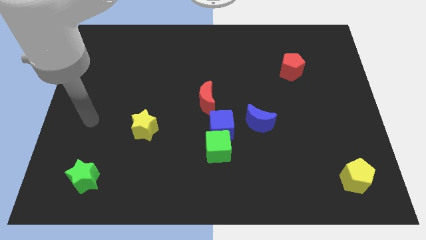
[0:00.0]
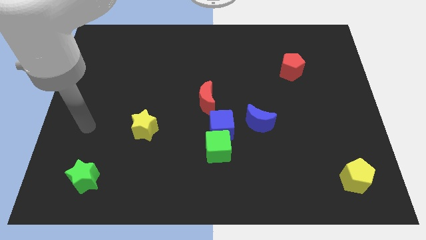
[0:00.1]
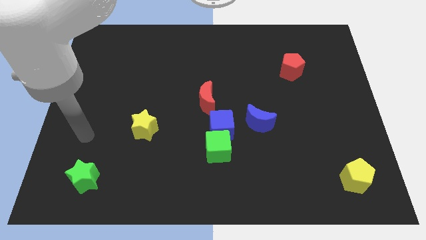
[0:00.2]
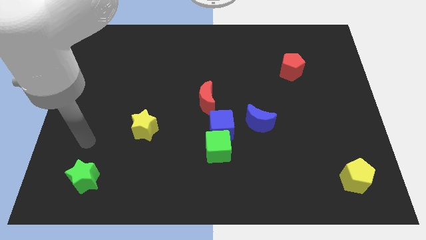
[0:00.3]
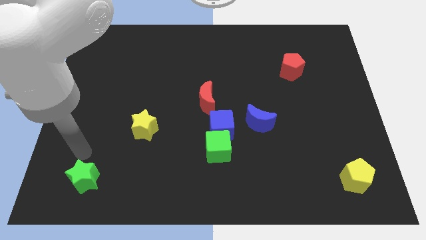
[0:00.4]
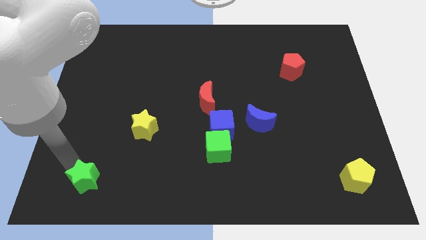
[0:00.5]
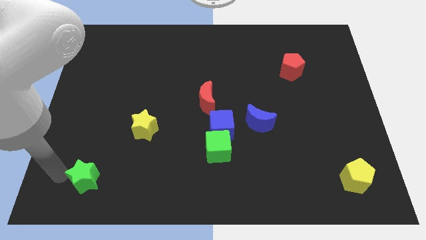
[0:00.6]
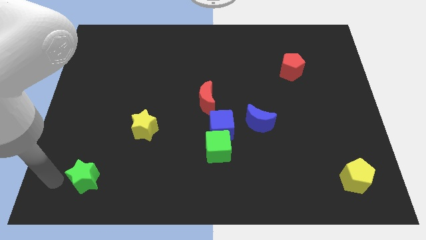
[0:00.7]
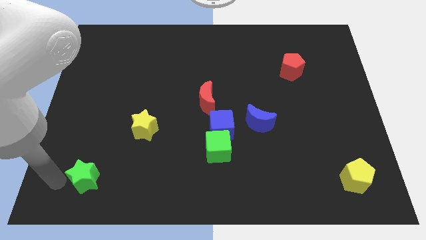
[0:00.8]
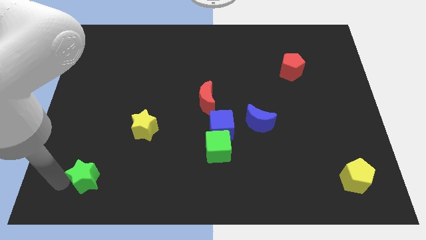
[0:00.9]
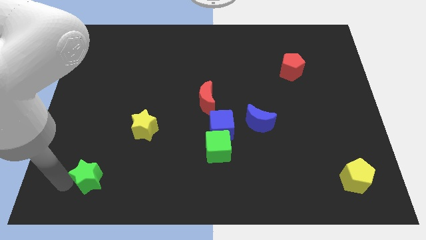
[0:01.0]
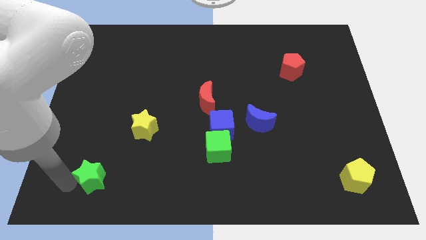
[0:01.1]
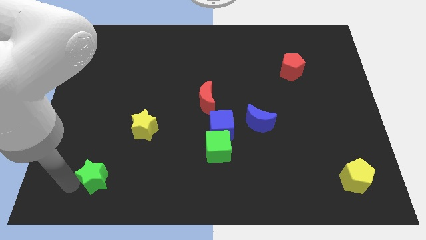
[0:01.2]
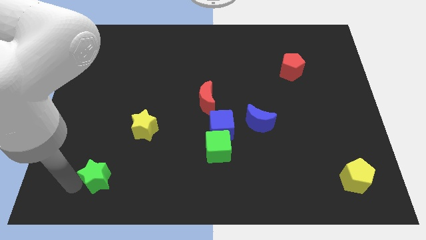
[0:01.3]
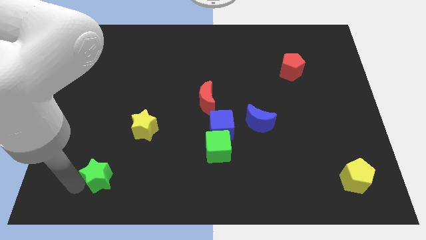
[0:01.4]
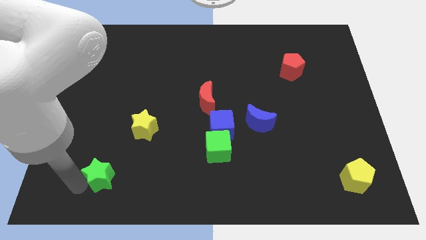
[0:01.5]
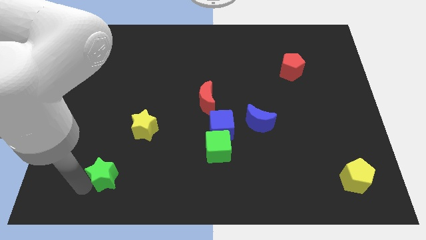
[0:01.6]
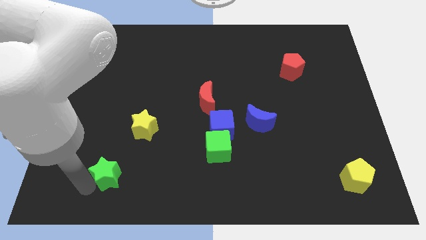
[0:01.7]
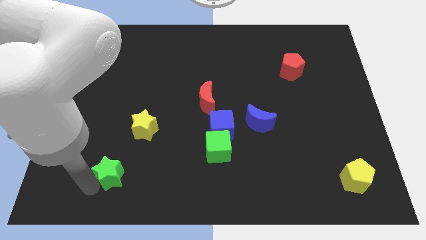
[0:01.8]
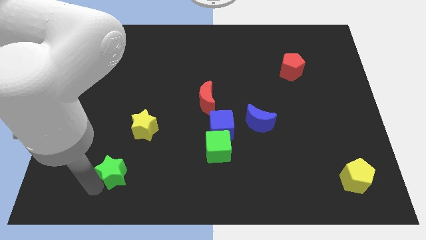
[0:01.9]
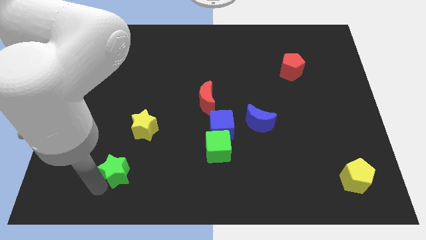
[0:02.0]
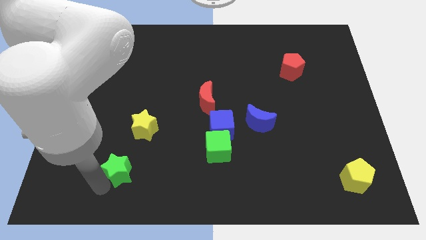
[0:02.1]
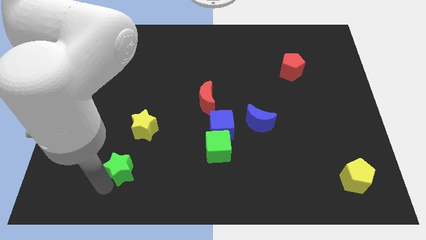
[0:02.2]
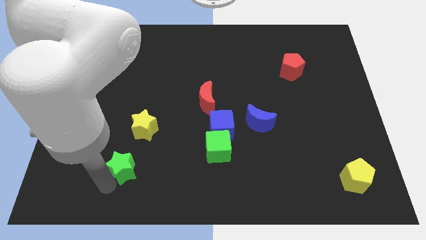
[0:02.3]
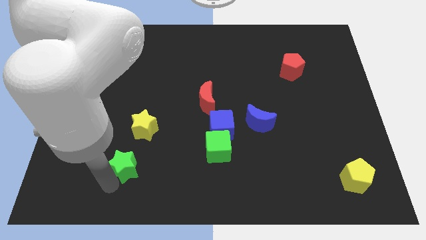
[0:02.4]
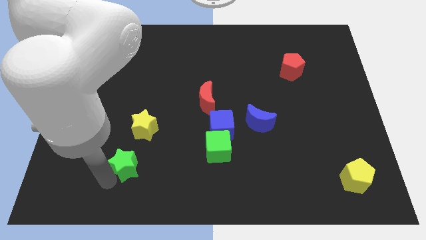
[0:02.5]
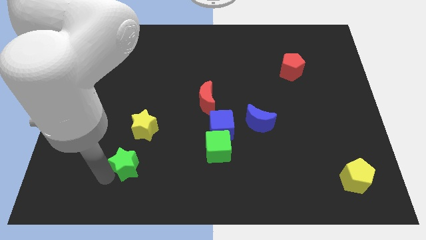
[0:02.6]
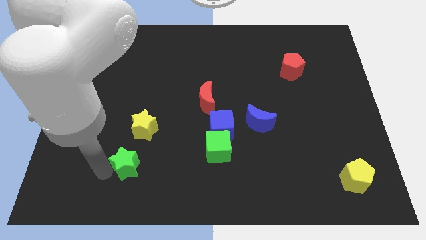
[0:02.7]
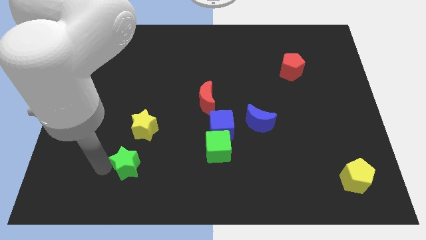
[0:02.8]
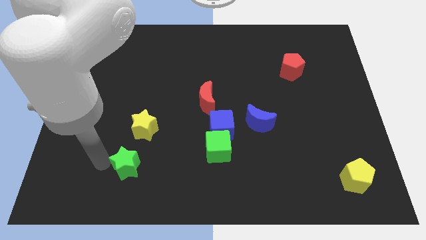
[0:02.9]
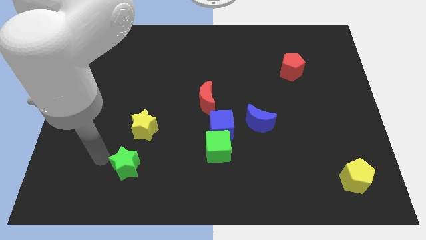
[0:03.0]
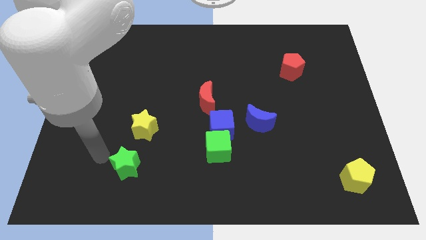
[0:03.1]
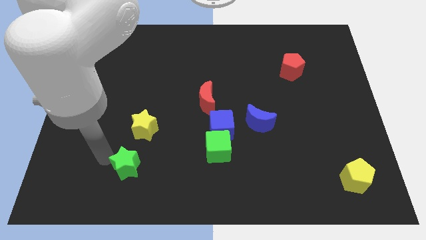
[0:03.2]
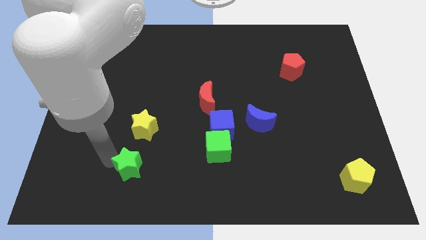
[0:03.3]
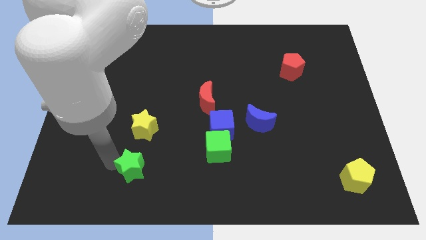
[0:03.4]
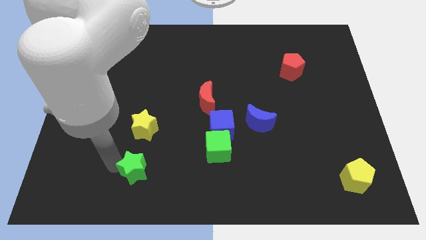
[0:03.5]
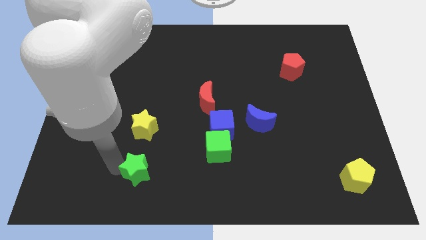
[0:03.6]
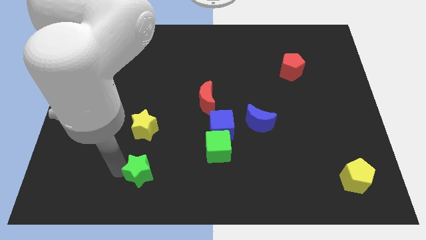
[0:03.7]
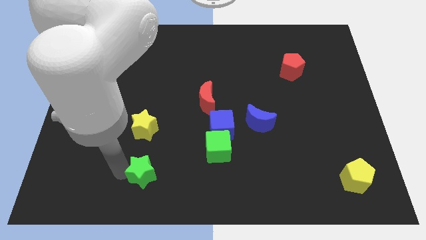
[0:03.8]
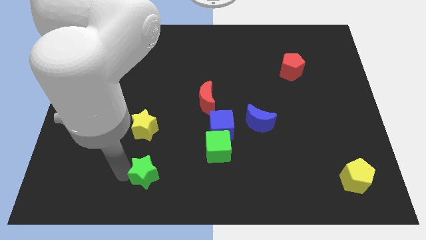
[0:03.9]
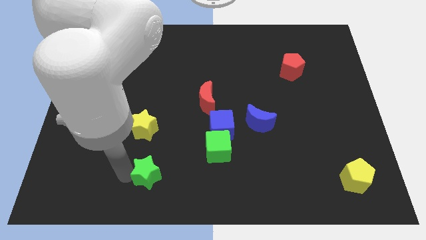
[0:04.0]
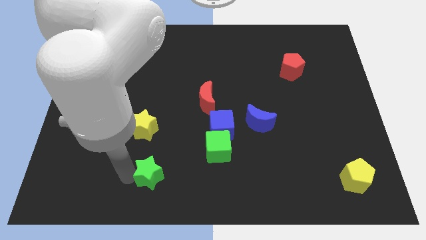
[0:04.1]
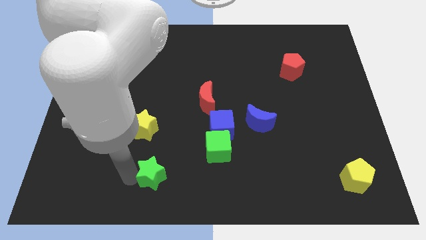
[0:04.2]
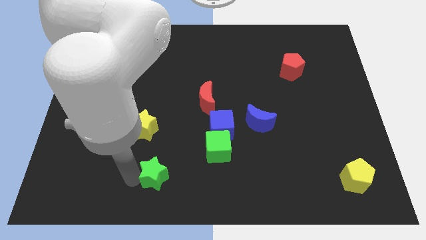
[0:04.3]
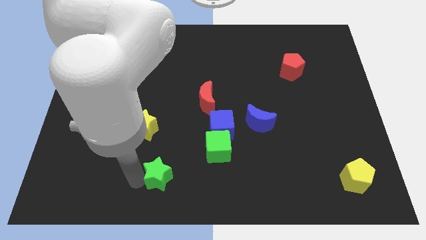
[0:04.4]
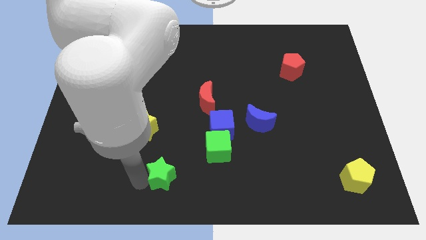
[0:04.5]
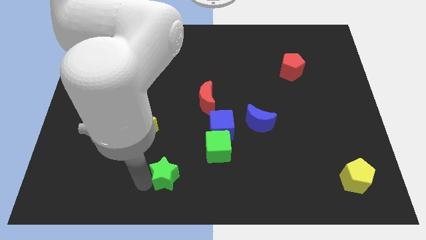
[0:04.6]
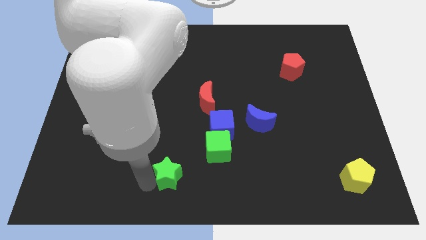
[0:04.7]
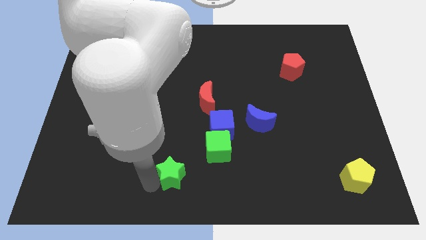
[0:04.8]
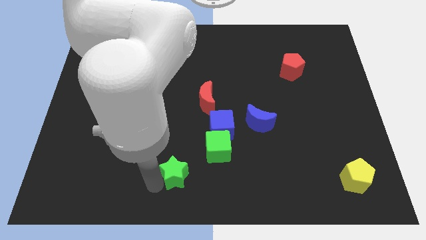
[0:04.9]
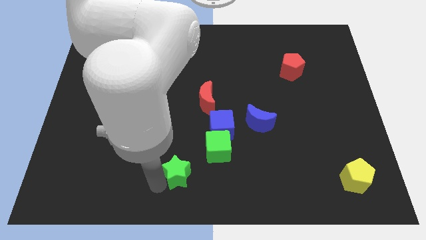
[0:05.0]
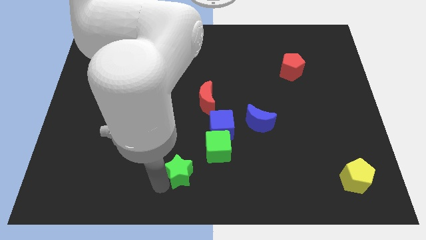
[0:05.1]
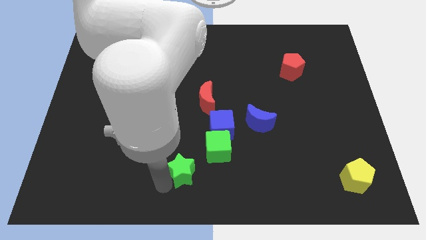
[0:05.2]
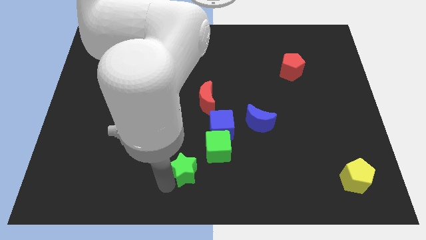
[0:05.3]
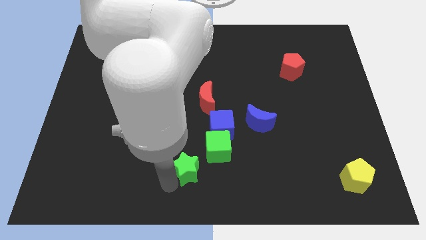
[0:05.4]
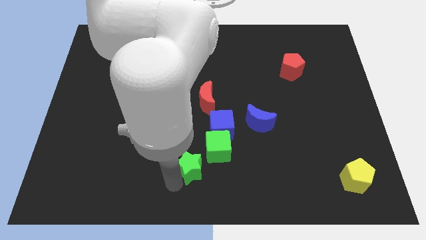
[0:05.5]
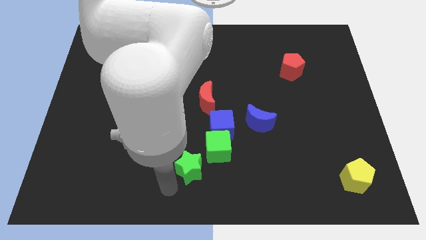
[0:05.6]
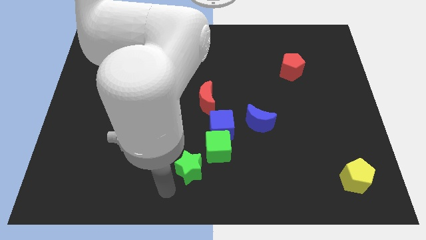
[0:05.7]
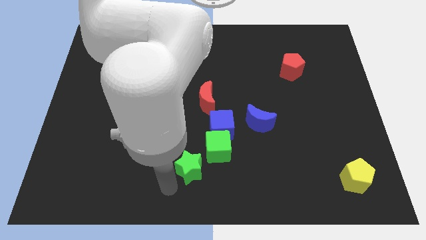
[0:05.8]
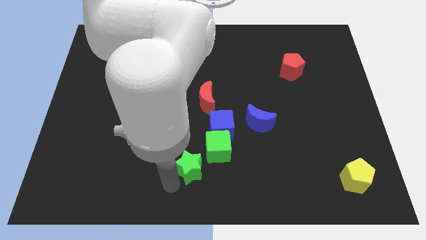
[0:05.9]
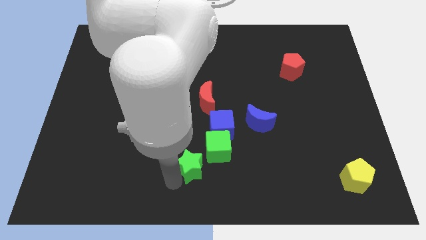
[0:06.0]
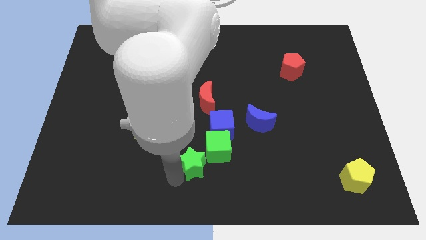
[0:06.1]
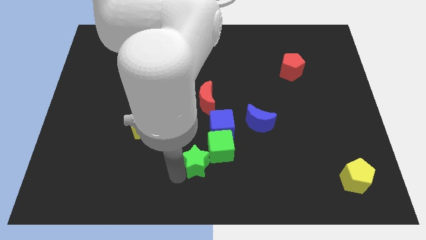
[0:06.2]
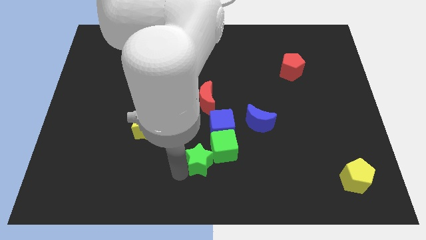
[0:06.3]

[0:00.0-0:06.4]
put the green star to the green cube
